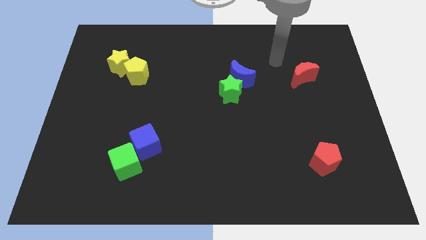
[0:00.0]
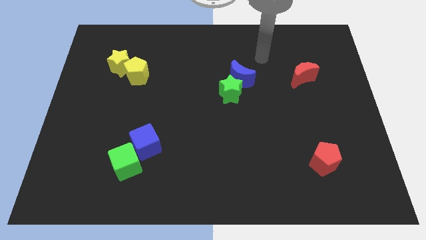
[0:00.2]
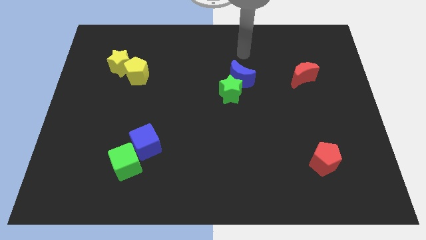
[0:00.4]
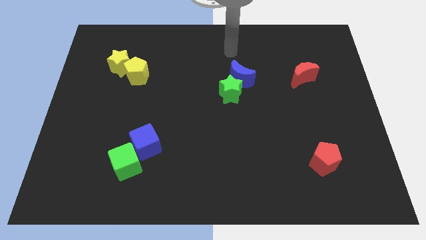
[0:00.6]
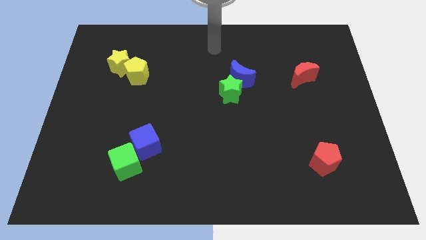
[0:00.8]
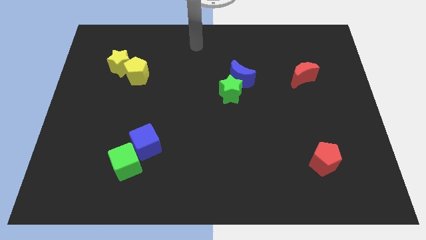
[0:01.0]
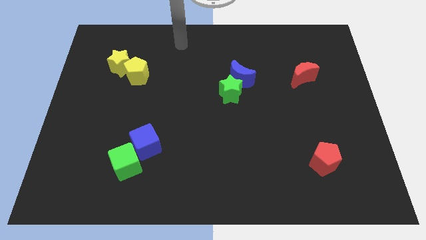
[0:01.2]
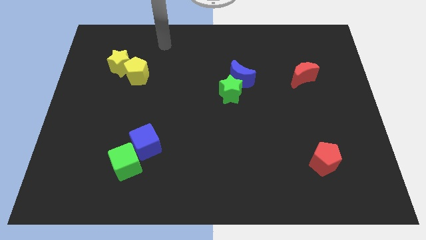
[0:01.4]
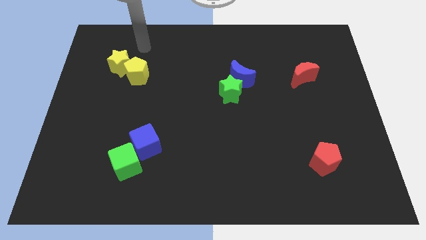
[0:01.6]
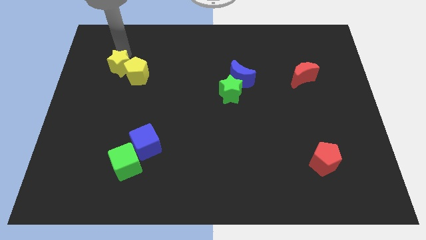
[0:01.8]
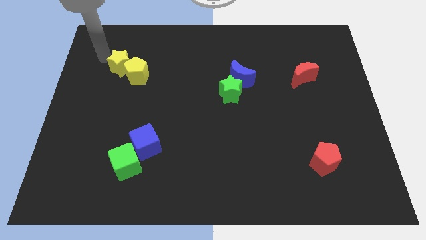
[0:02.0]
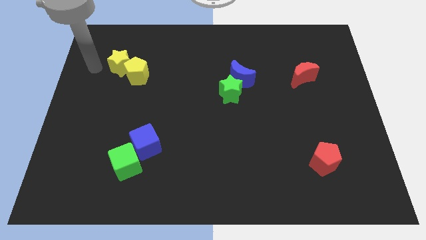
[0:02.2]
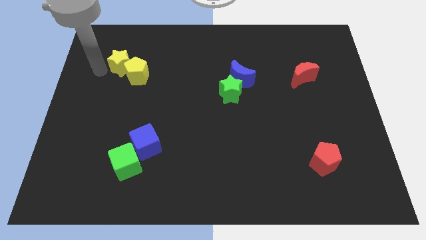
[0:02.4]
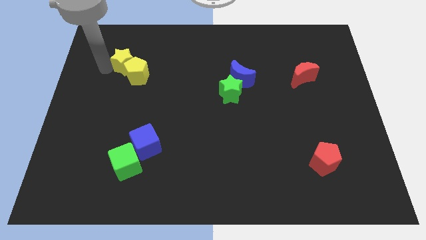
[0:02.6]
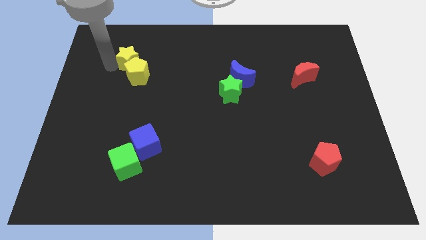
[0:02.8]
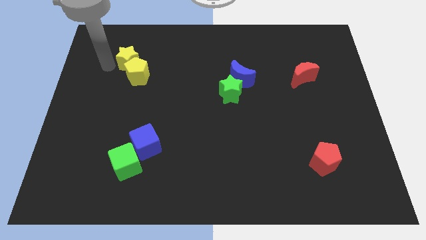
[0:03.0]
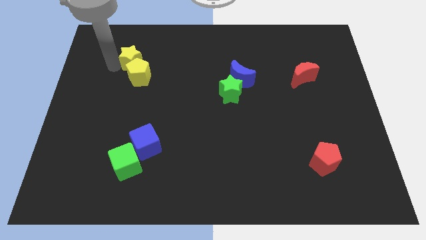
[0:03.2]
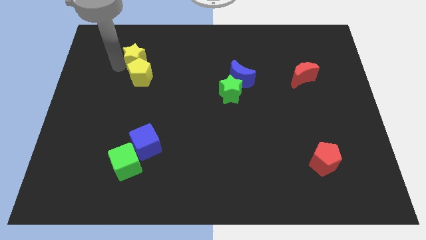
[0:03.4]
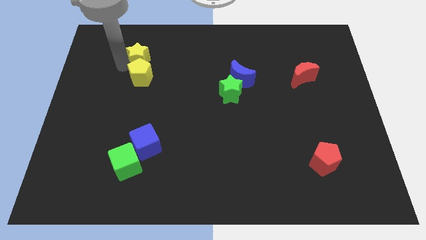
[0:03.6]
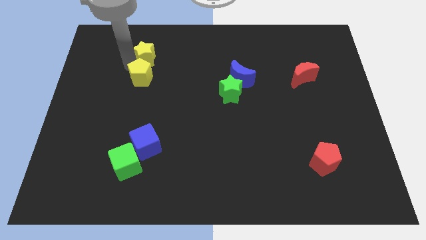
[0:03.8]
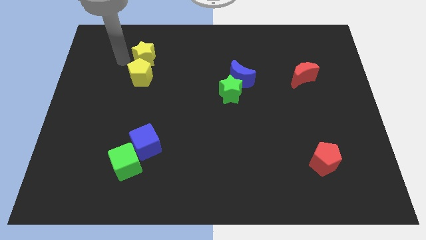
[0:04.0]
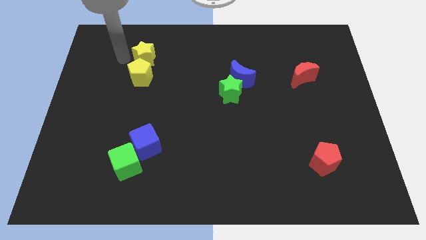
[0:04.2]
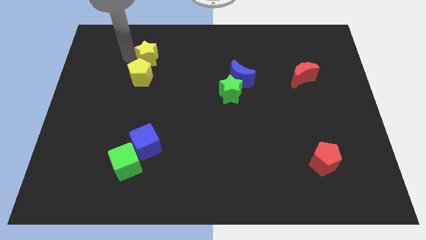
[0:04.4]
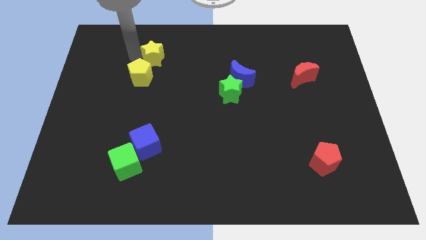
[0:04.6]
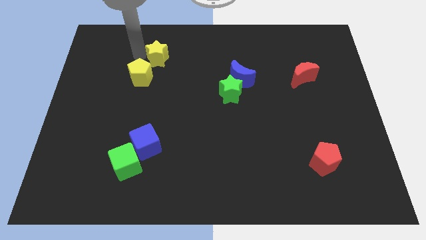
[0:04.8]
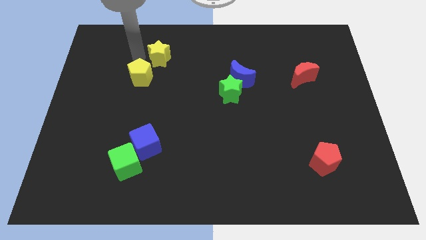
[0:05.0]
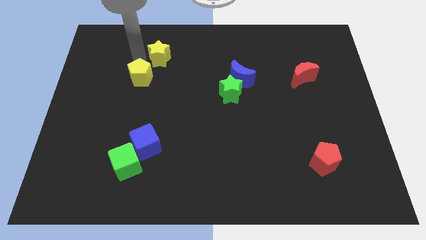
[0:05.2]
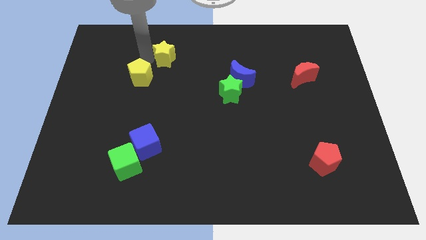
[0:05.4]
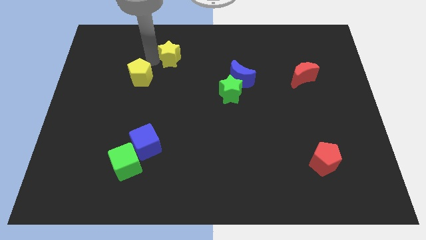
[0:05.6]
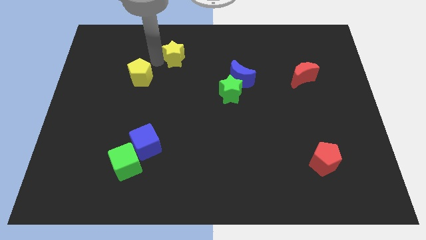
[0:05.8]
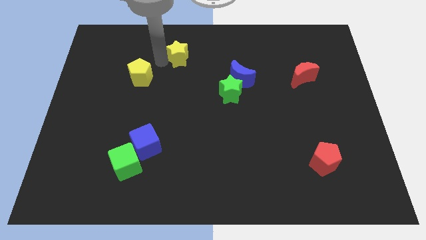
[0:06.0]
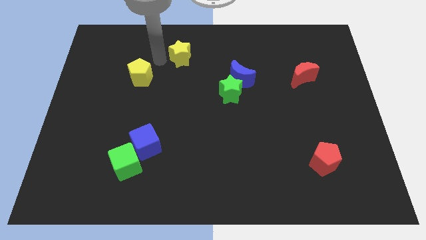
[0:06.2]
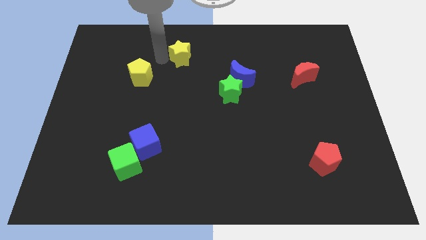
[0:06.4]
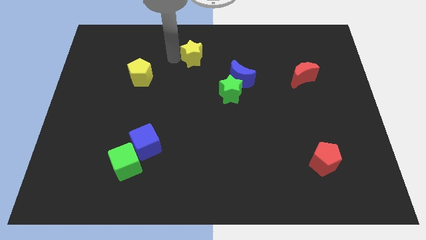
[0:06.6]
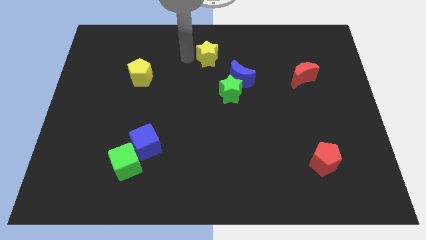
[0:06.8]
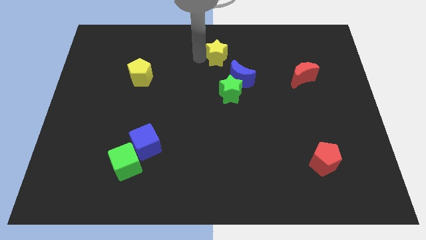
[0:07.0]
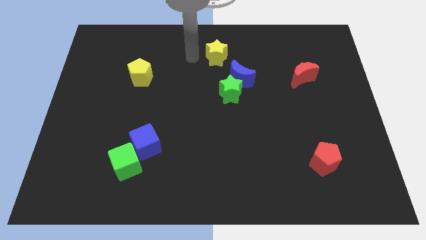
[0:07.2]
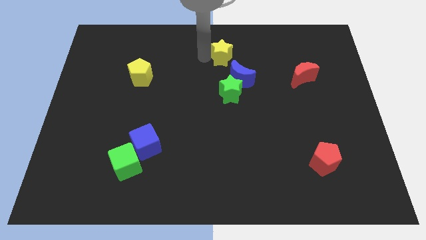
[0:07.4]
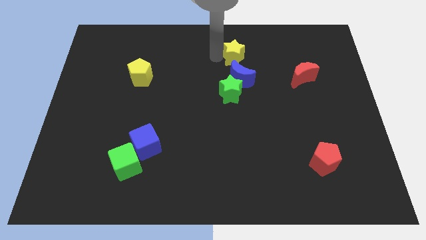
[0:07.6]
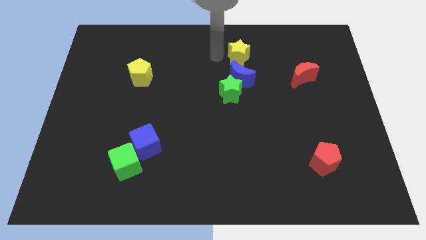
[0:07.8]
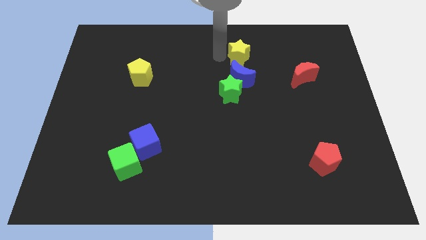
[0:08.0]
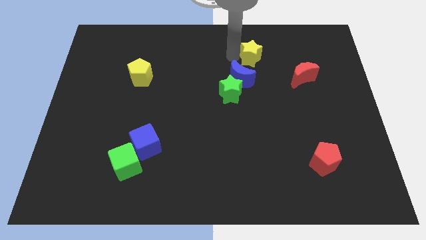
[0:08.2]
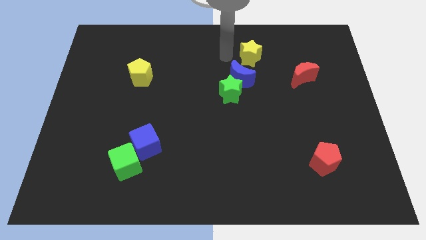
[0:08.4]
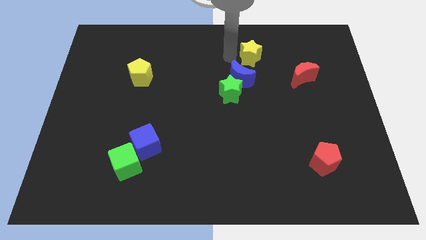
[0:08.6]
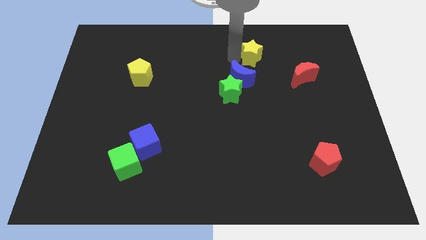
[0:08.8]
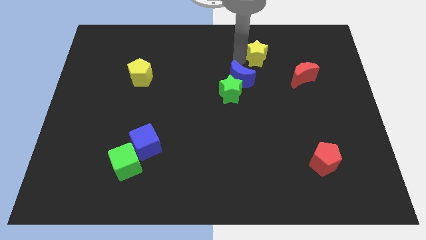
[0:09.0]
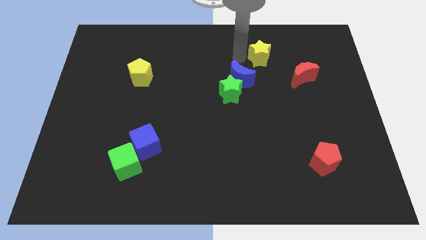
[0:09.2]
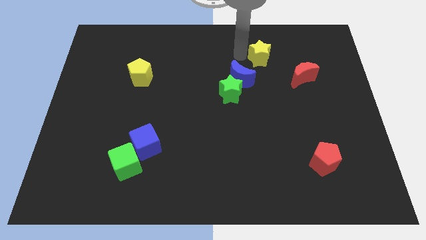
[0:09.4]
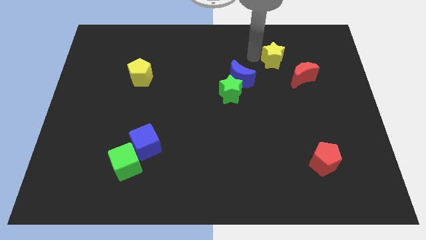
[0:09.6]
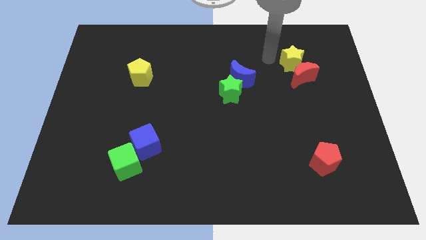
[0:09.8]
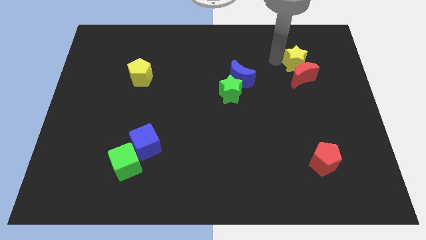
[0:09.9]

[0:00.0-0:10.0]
push the yellow star to the top right of the red moon

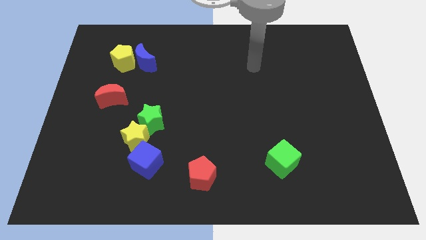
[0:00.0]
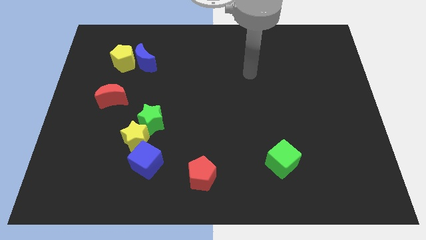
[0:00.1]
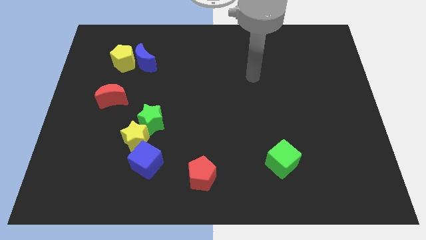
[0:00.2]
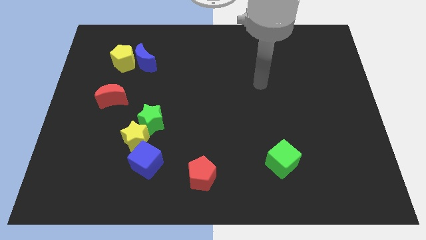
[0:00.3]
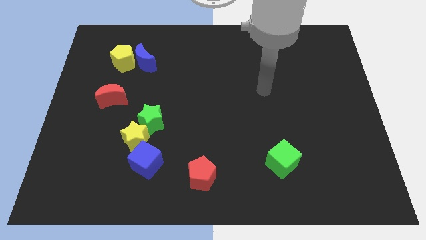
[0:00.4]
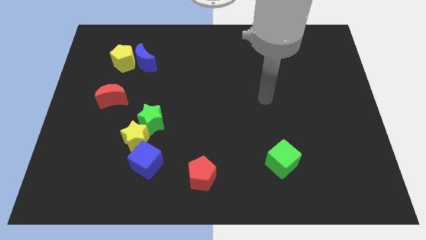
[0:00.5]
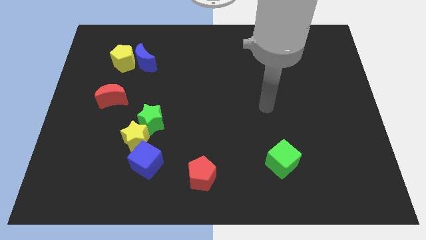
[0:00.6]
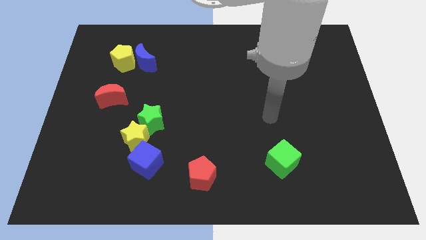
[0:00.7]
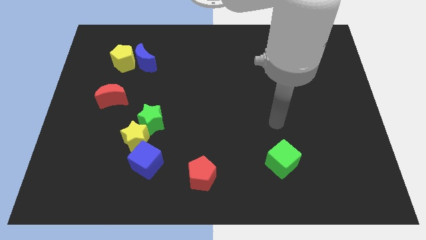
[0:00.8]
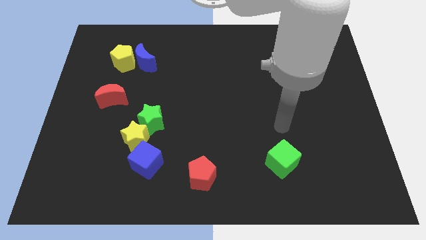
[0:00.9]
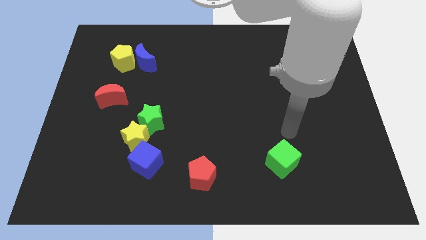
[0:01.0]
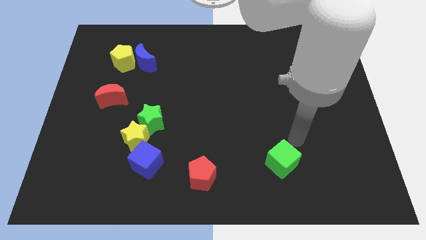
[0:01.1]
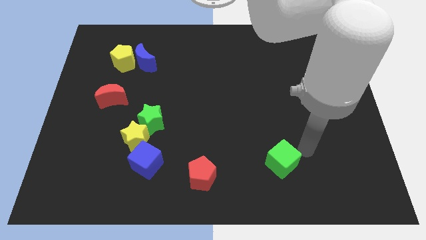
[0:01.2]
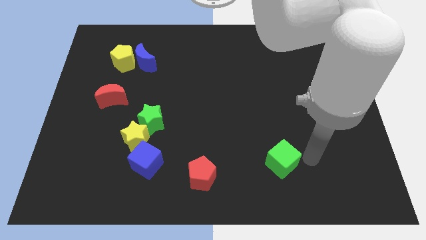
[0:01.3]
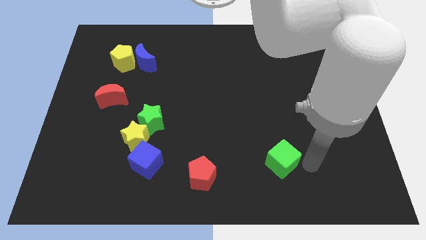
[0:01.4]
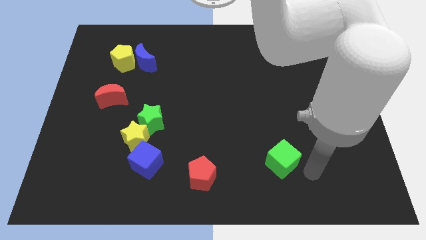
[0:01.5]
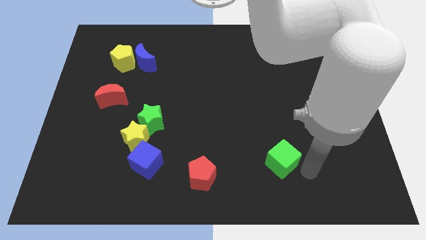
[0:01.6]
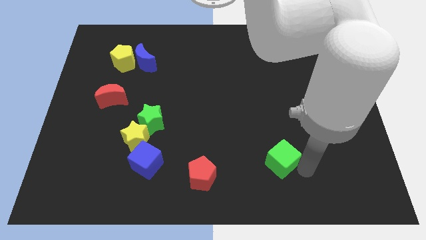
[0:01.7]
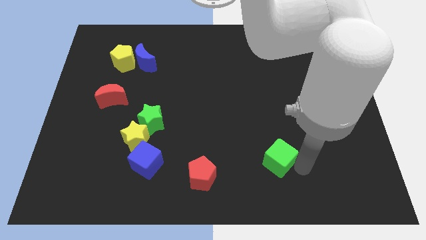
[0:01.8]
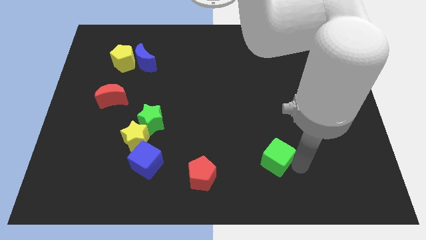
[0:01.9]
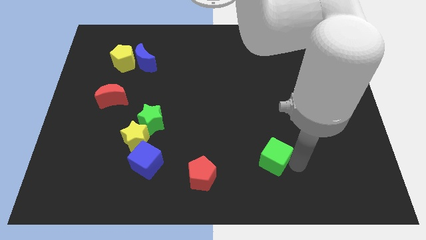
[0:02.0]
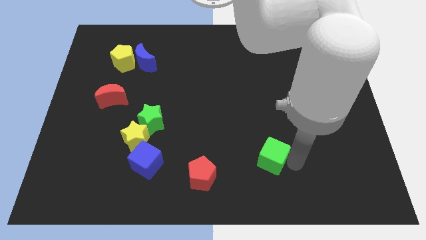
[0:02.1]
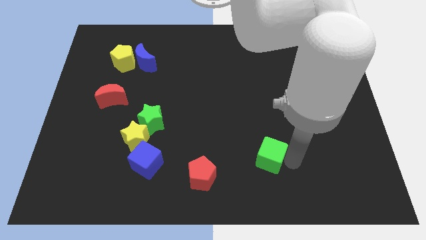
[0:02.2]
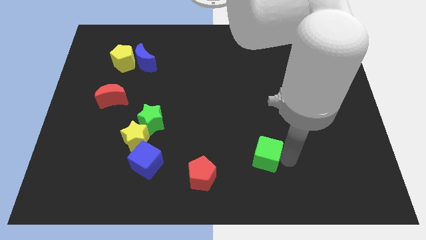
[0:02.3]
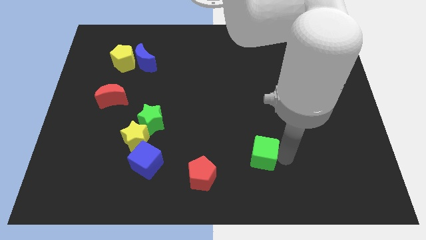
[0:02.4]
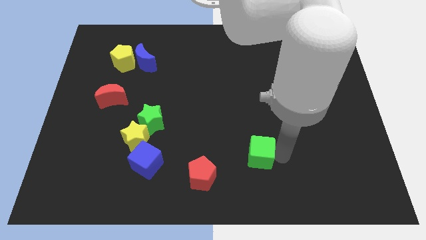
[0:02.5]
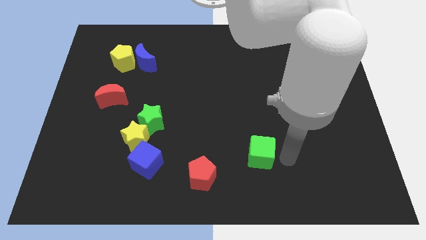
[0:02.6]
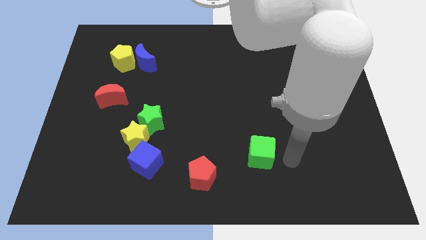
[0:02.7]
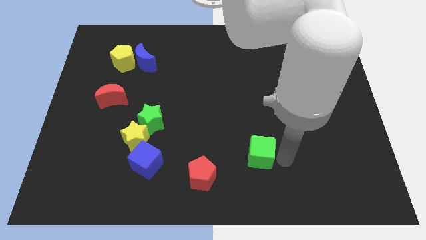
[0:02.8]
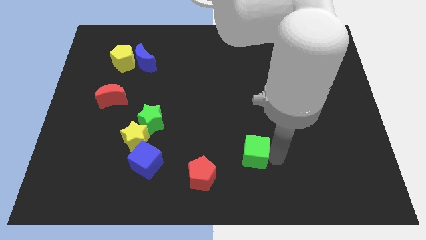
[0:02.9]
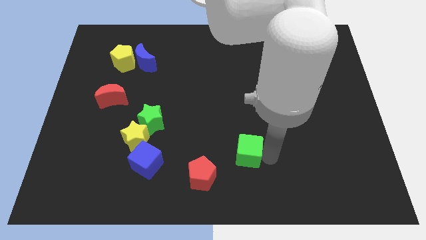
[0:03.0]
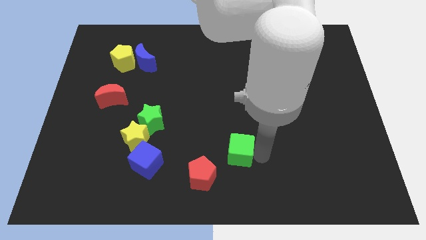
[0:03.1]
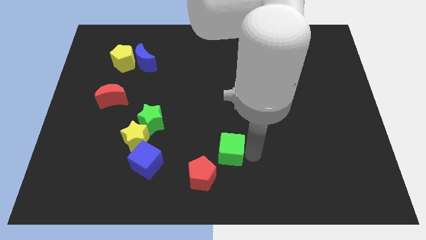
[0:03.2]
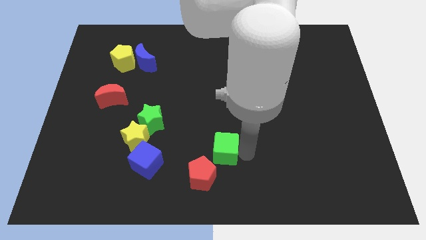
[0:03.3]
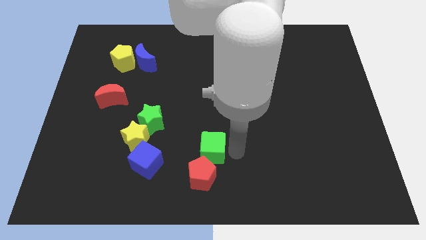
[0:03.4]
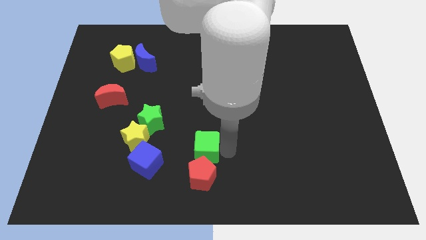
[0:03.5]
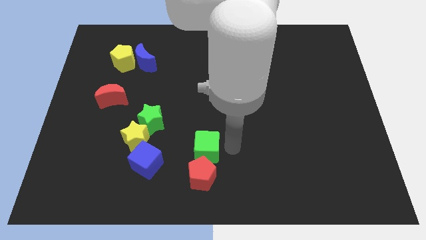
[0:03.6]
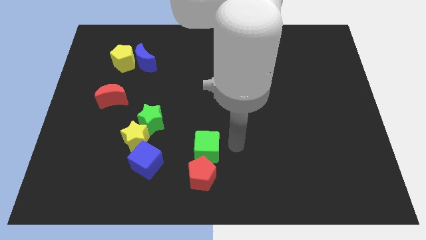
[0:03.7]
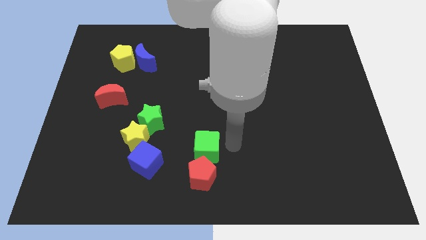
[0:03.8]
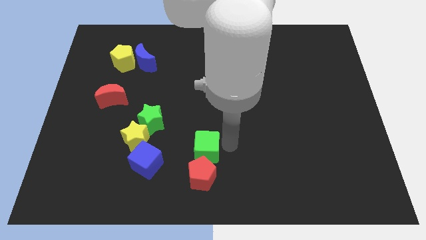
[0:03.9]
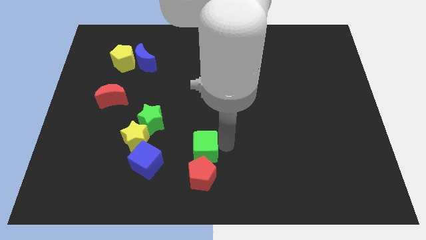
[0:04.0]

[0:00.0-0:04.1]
move the green cube to the top left side of the red pentagon
